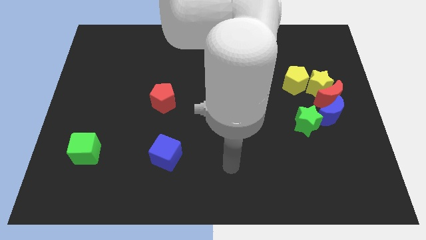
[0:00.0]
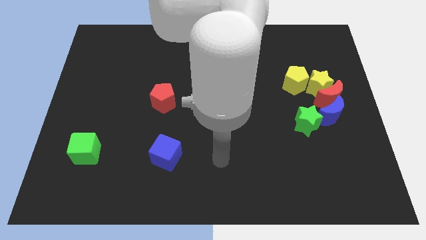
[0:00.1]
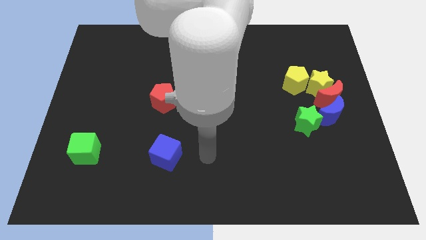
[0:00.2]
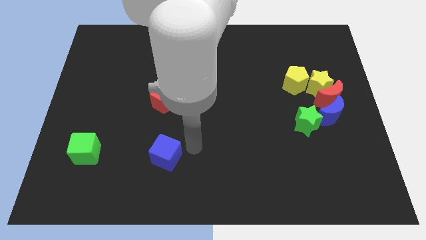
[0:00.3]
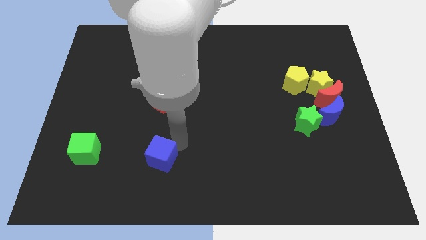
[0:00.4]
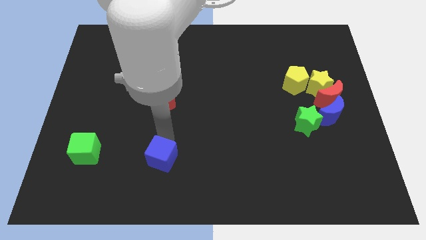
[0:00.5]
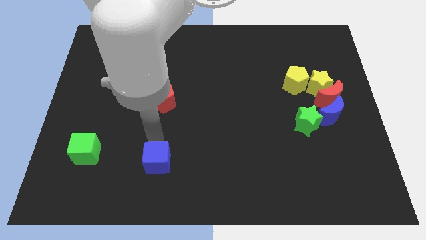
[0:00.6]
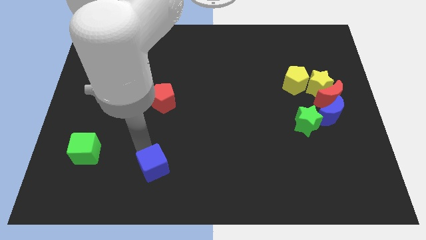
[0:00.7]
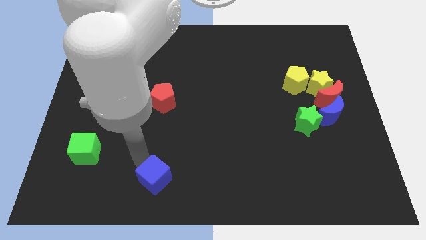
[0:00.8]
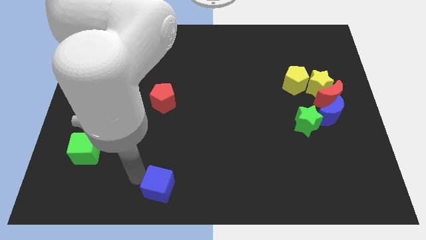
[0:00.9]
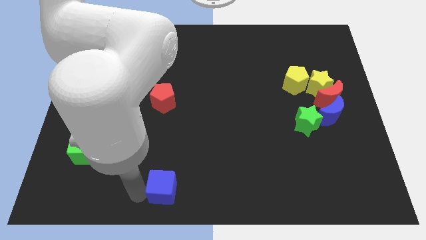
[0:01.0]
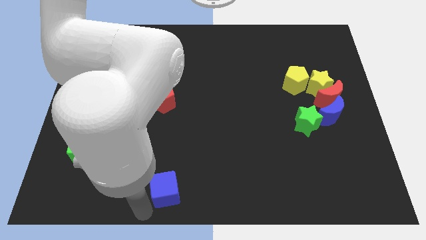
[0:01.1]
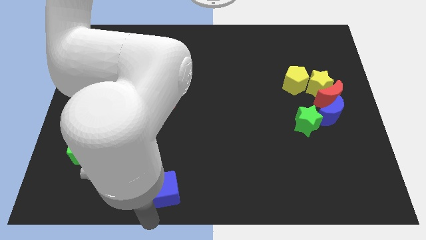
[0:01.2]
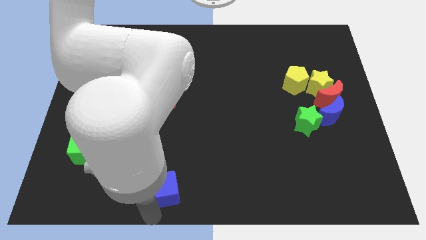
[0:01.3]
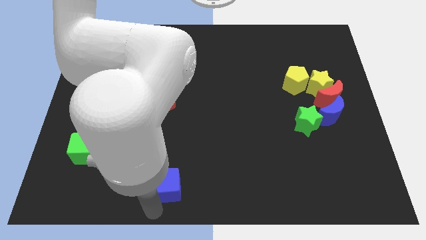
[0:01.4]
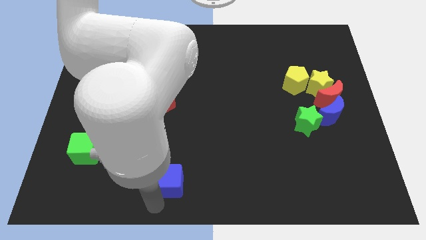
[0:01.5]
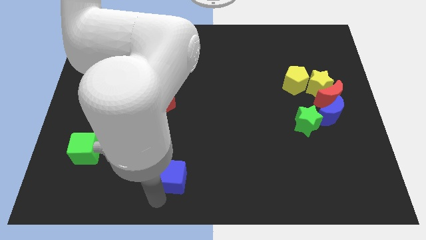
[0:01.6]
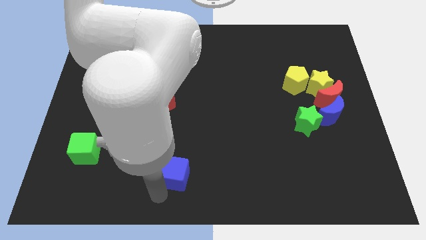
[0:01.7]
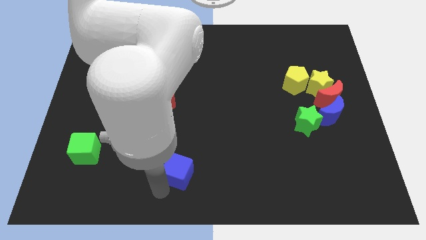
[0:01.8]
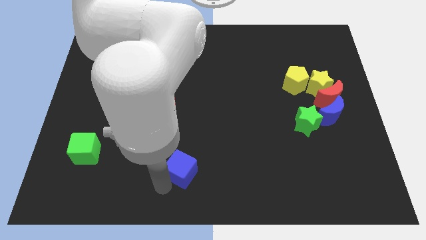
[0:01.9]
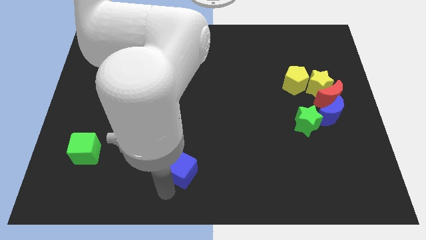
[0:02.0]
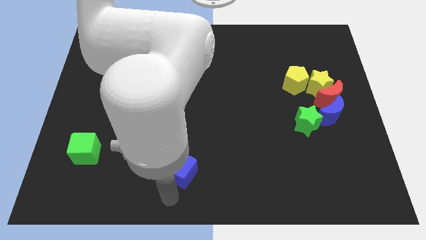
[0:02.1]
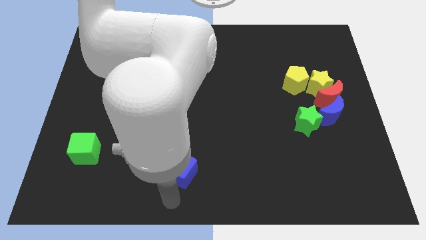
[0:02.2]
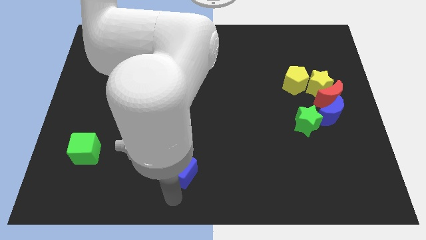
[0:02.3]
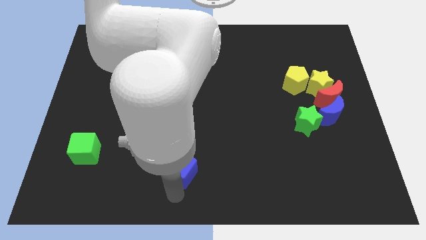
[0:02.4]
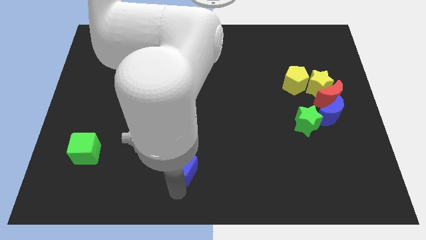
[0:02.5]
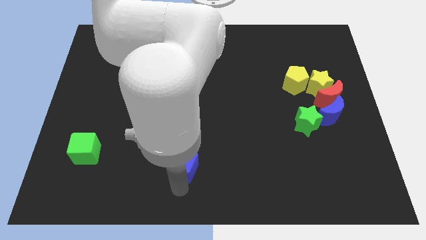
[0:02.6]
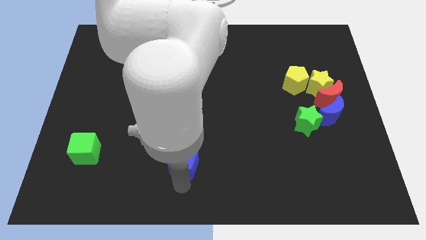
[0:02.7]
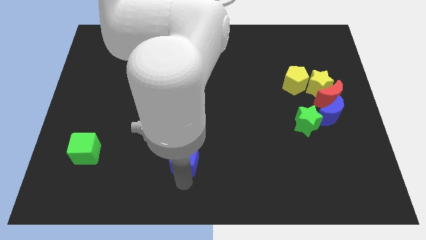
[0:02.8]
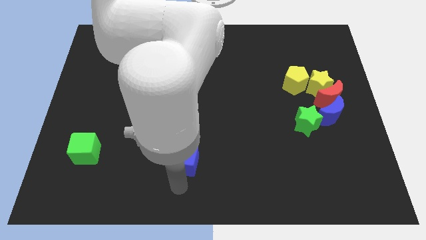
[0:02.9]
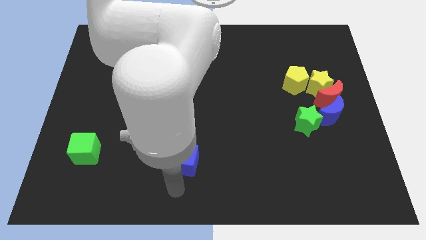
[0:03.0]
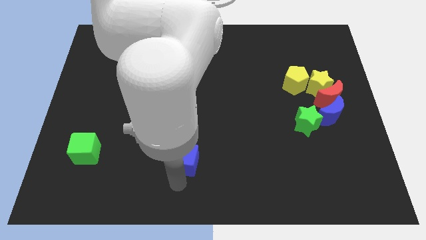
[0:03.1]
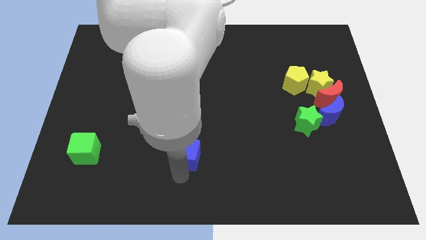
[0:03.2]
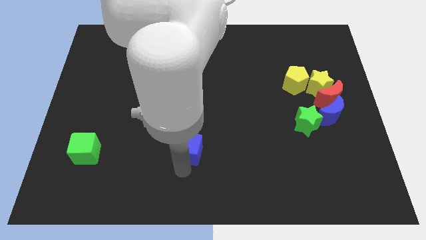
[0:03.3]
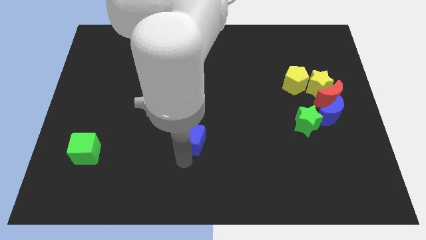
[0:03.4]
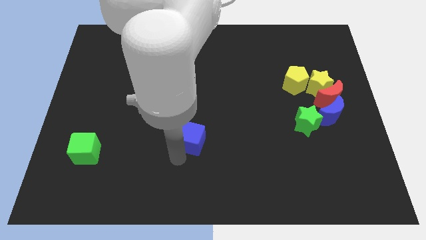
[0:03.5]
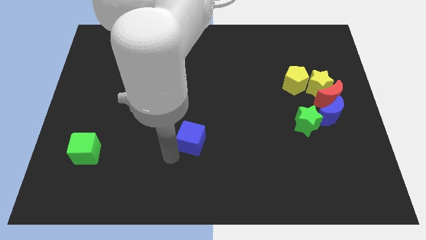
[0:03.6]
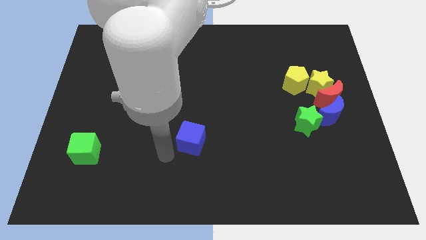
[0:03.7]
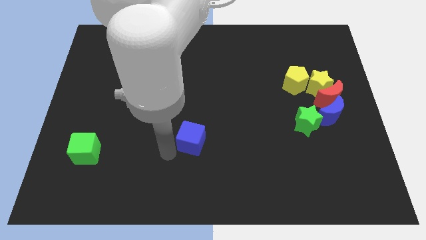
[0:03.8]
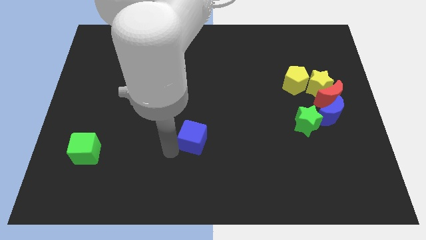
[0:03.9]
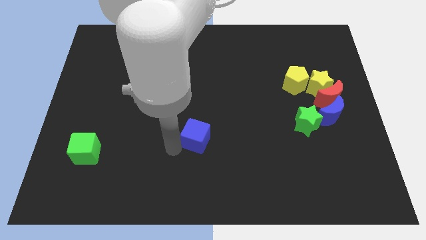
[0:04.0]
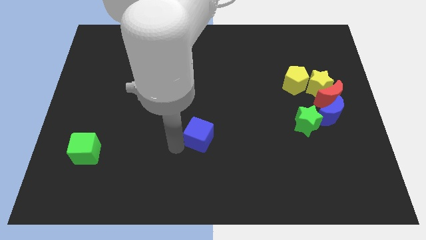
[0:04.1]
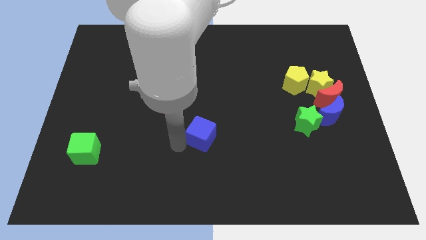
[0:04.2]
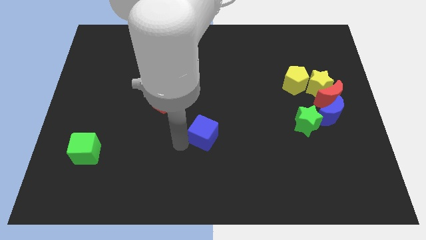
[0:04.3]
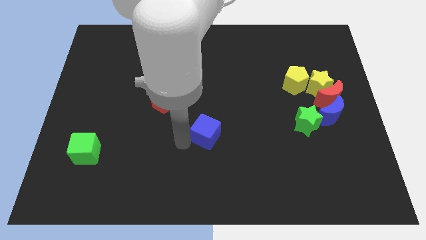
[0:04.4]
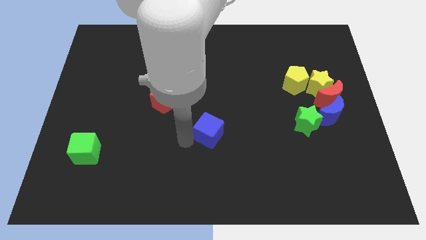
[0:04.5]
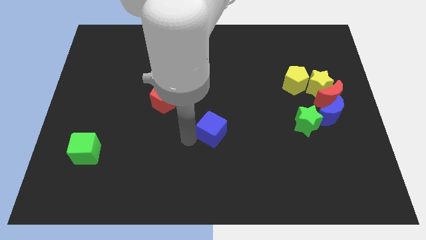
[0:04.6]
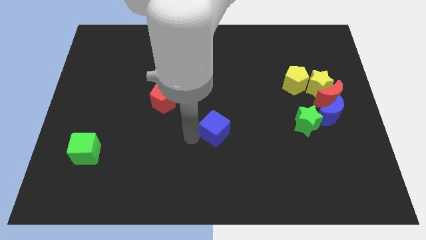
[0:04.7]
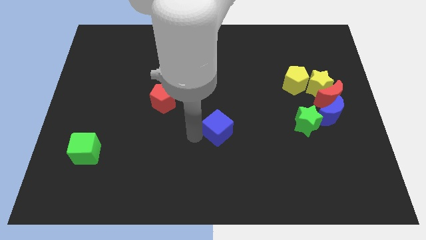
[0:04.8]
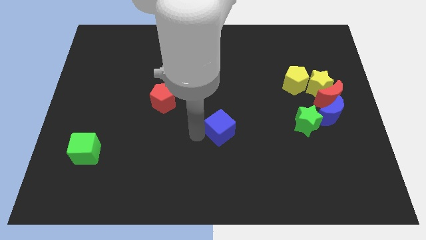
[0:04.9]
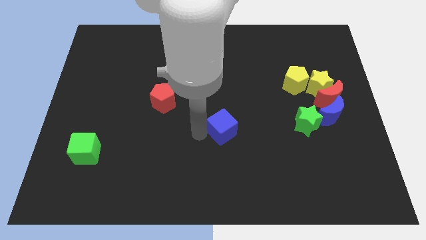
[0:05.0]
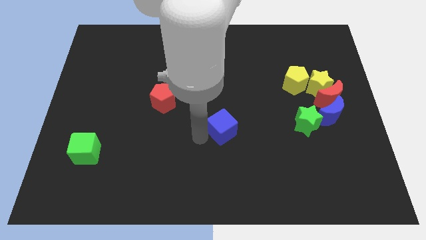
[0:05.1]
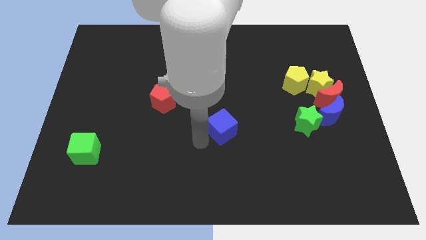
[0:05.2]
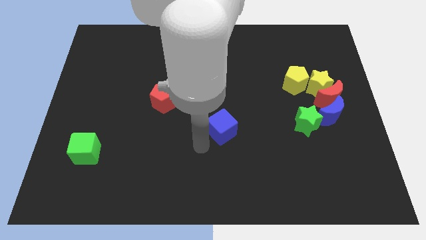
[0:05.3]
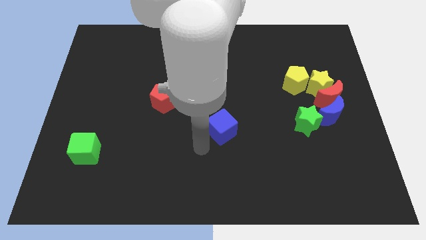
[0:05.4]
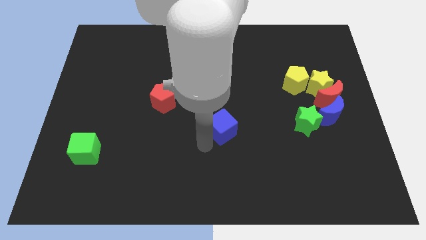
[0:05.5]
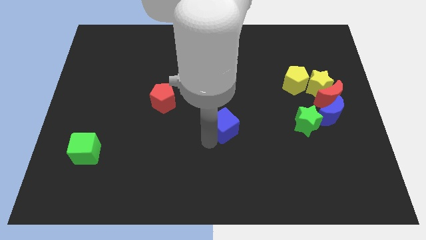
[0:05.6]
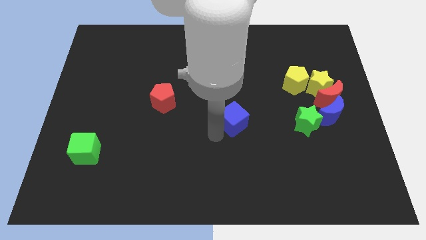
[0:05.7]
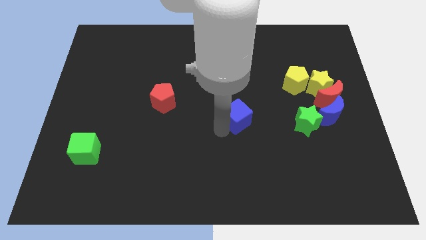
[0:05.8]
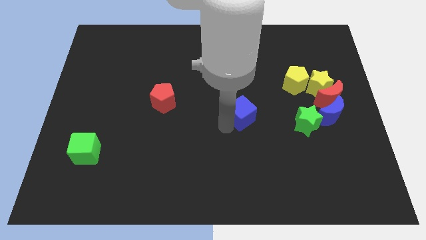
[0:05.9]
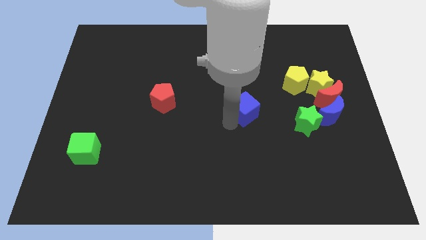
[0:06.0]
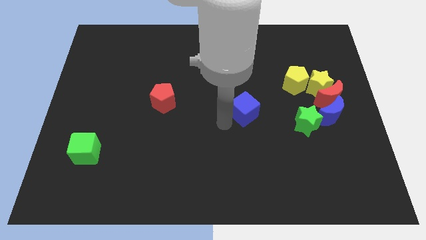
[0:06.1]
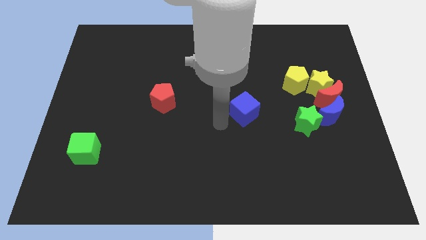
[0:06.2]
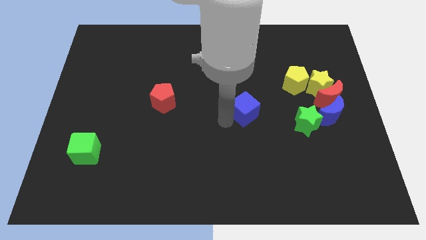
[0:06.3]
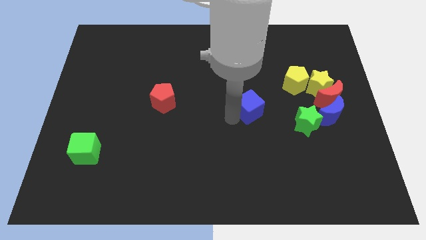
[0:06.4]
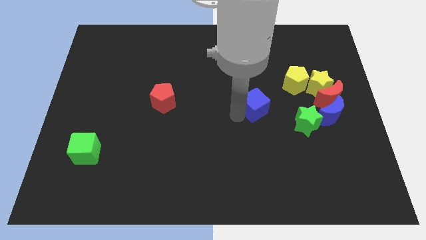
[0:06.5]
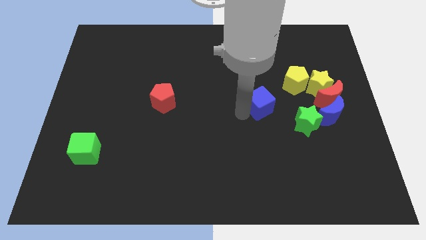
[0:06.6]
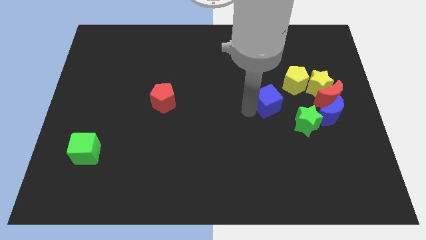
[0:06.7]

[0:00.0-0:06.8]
move the blue cube just left of the red moon
